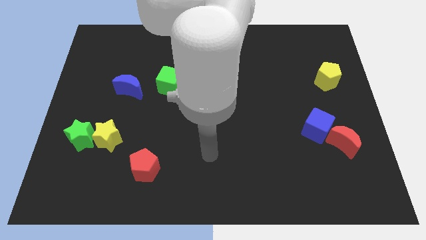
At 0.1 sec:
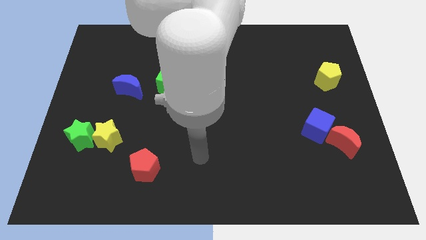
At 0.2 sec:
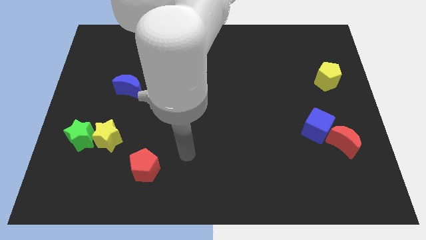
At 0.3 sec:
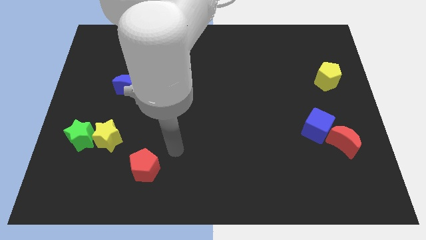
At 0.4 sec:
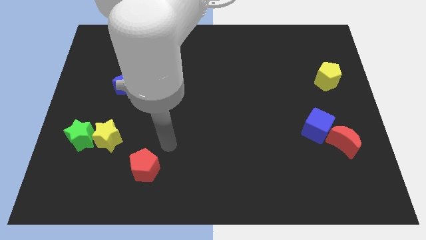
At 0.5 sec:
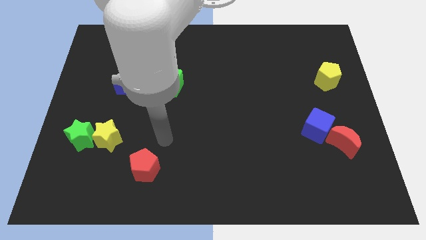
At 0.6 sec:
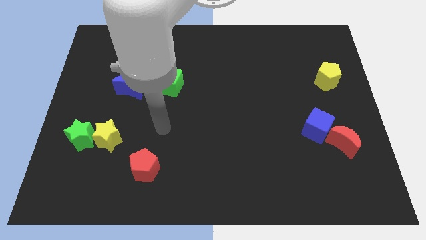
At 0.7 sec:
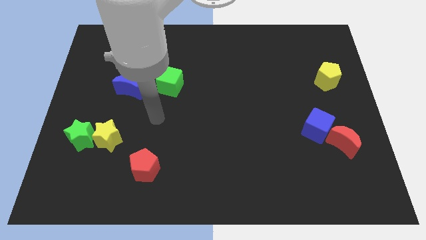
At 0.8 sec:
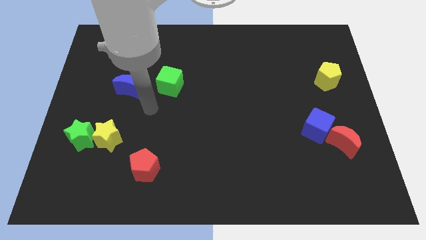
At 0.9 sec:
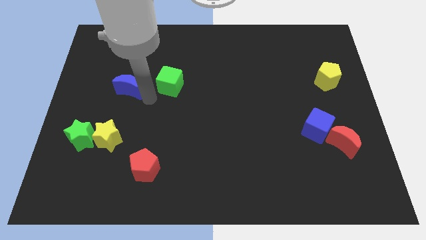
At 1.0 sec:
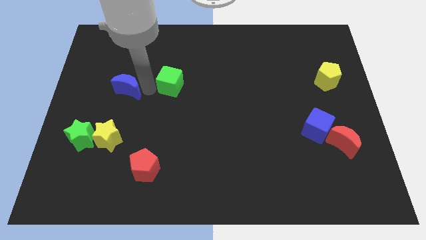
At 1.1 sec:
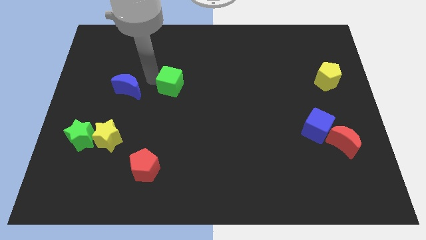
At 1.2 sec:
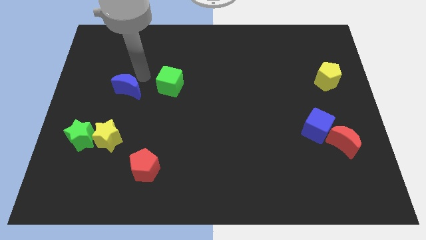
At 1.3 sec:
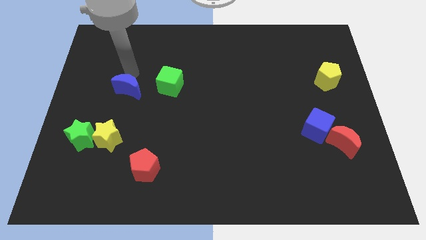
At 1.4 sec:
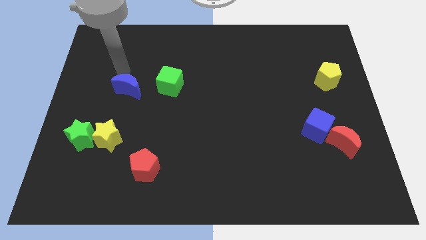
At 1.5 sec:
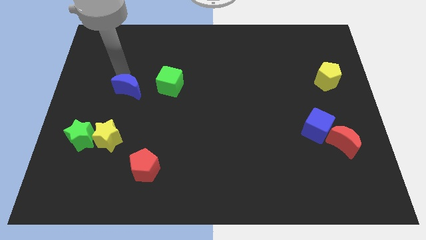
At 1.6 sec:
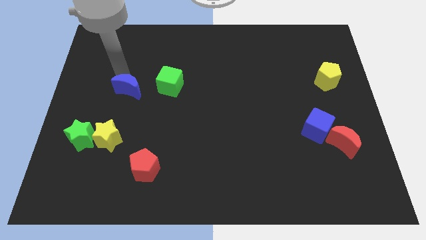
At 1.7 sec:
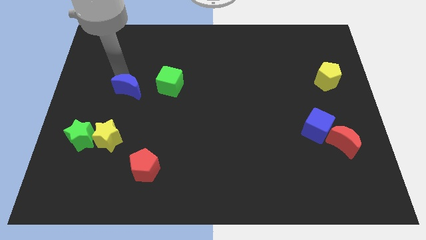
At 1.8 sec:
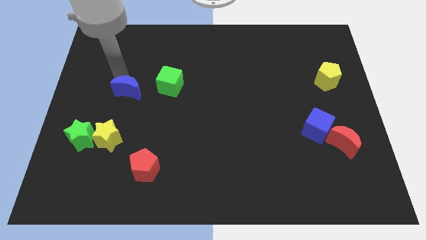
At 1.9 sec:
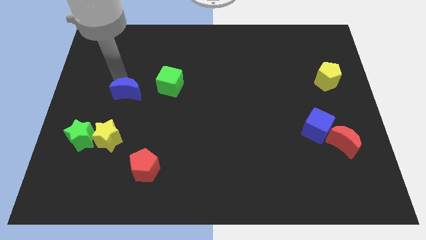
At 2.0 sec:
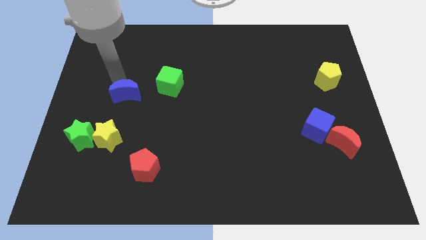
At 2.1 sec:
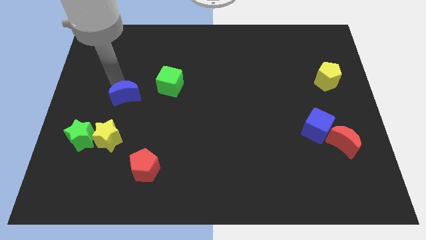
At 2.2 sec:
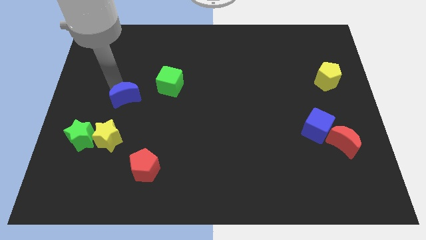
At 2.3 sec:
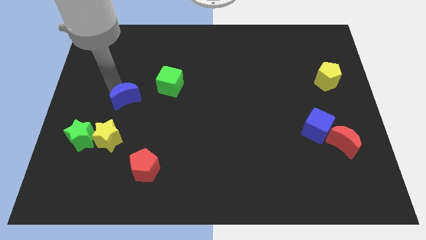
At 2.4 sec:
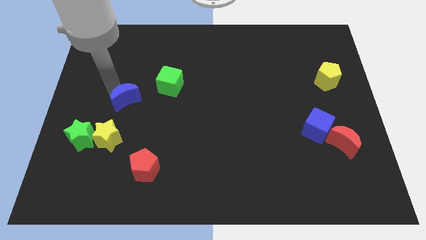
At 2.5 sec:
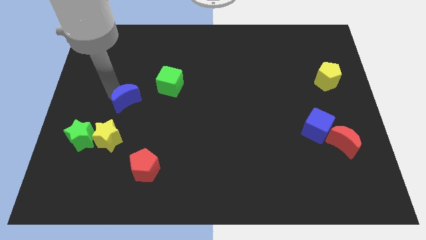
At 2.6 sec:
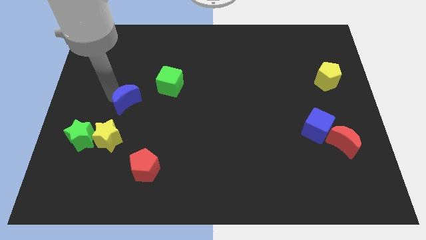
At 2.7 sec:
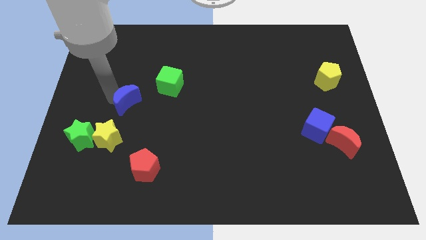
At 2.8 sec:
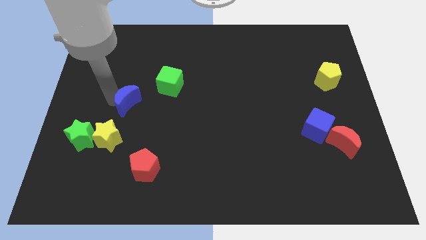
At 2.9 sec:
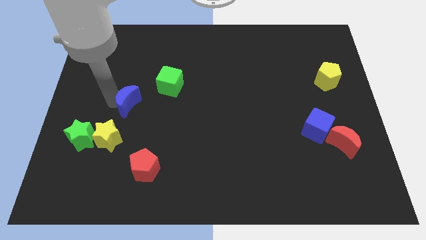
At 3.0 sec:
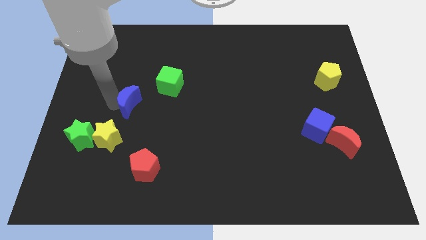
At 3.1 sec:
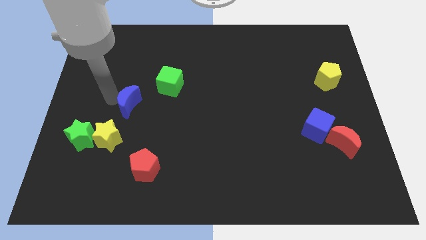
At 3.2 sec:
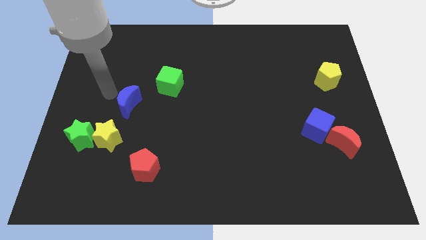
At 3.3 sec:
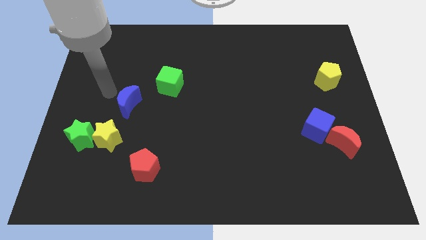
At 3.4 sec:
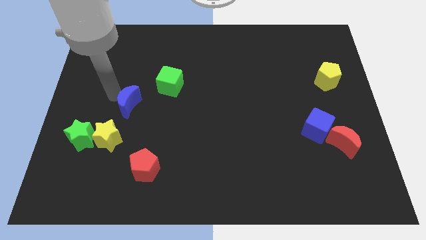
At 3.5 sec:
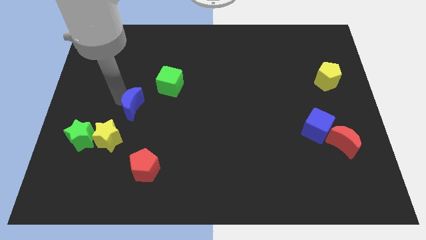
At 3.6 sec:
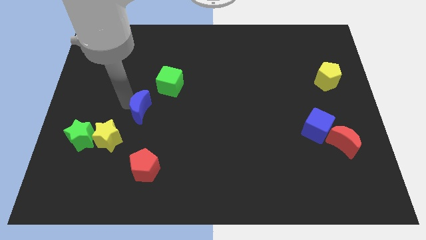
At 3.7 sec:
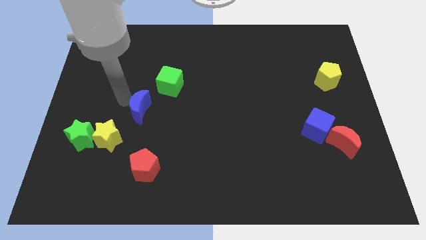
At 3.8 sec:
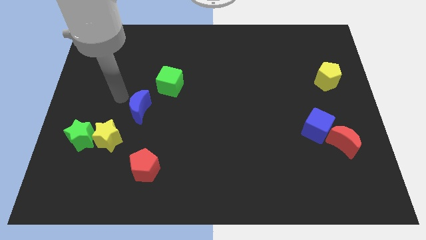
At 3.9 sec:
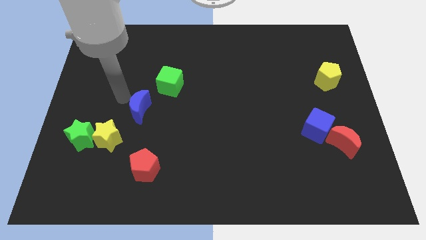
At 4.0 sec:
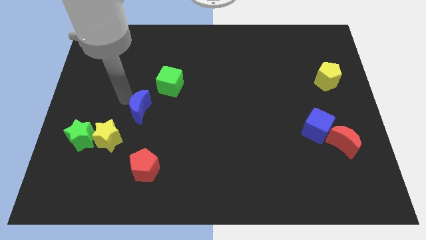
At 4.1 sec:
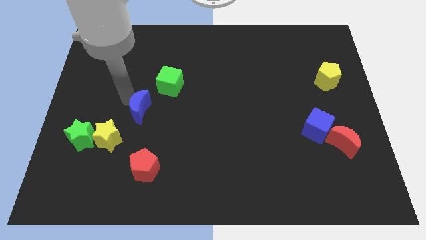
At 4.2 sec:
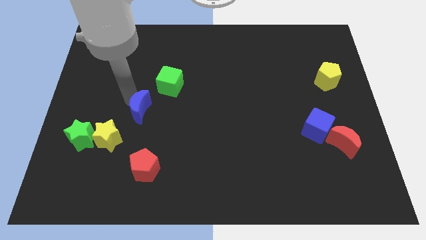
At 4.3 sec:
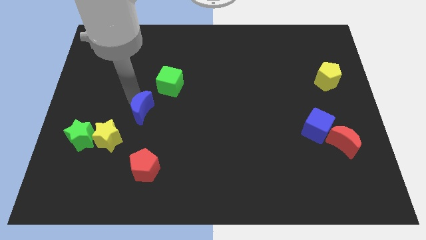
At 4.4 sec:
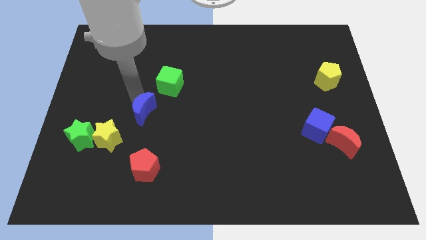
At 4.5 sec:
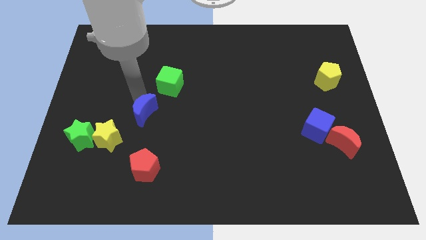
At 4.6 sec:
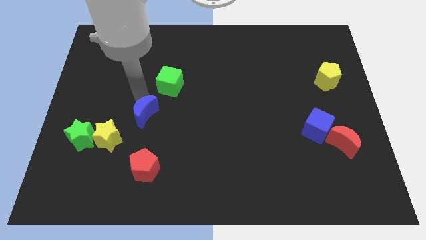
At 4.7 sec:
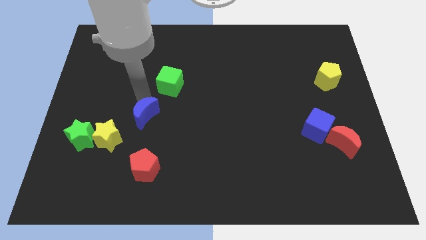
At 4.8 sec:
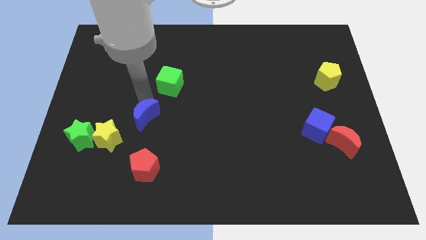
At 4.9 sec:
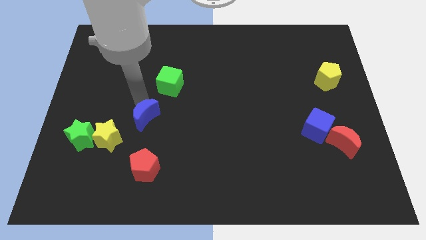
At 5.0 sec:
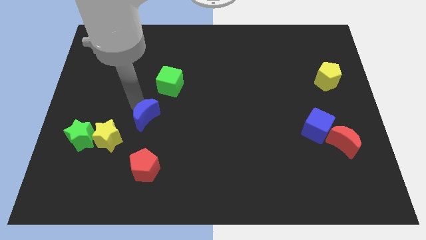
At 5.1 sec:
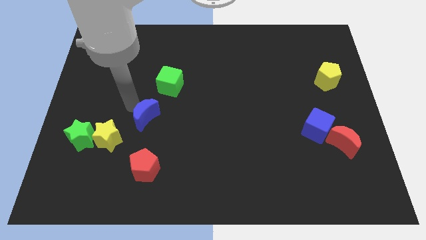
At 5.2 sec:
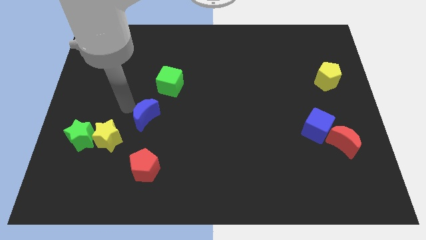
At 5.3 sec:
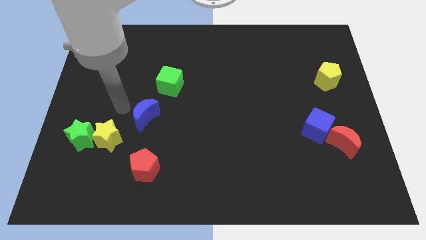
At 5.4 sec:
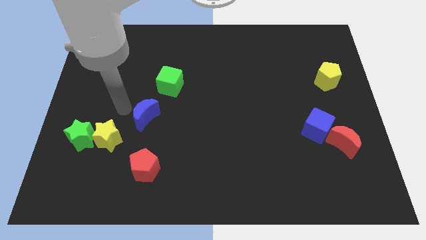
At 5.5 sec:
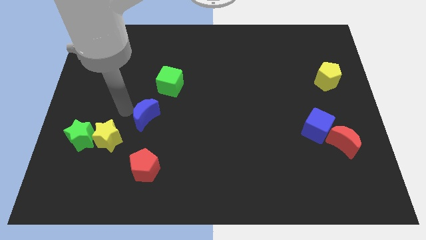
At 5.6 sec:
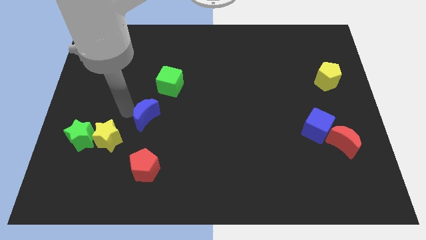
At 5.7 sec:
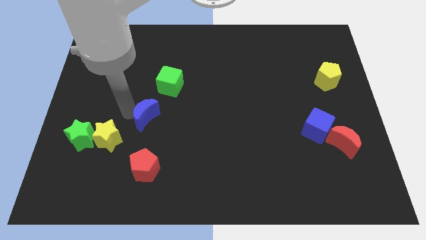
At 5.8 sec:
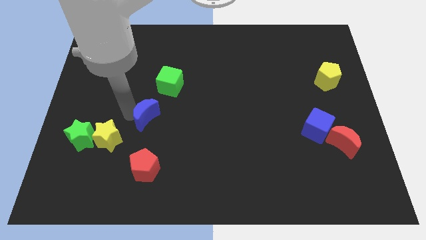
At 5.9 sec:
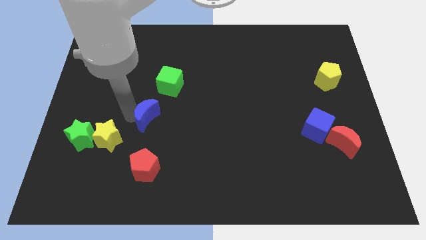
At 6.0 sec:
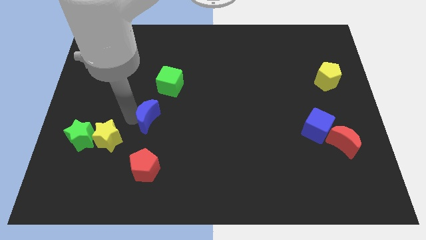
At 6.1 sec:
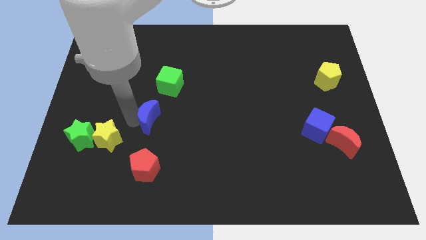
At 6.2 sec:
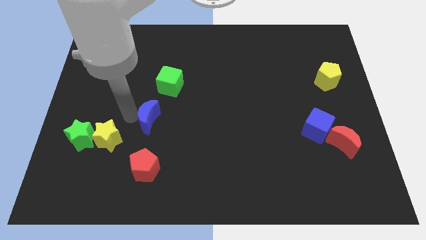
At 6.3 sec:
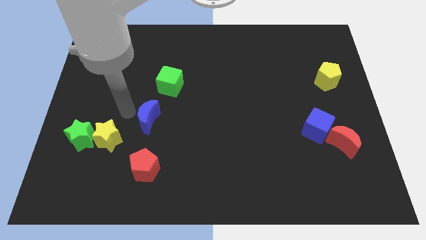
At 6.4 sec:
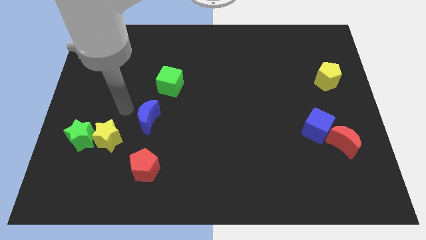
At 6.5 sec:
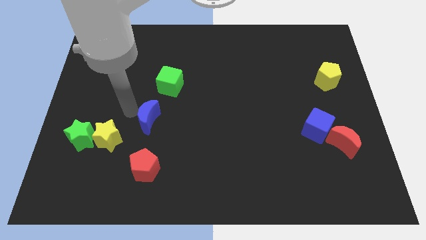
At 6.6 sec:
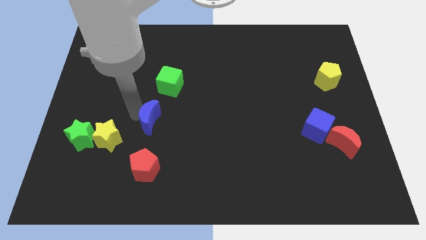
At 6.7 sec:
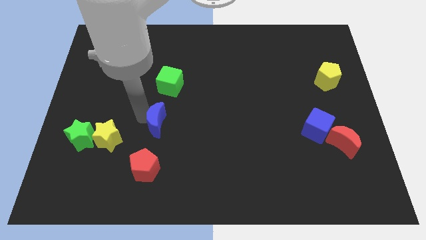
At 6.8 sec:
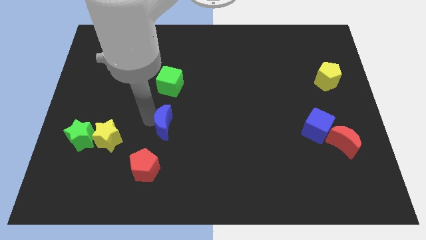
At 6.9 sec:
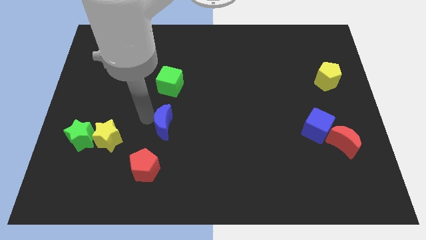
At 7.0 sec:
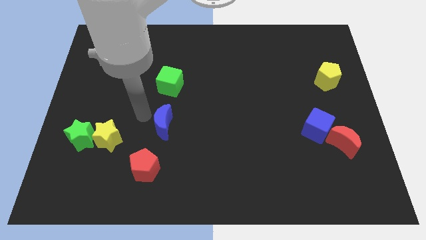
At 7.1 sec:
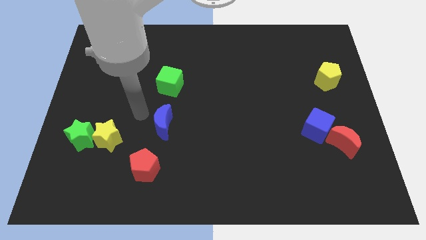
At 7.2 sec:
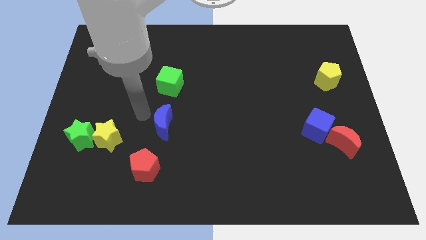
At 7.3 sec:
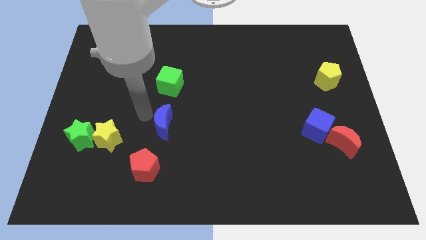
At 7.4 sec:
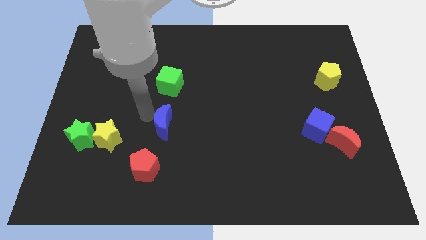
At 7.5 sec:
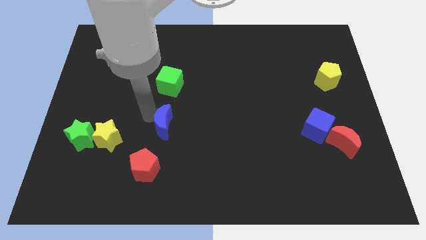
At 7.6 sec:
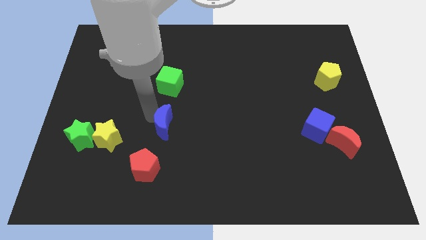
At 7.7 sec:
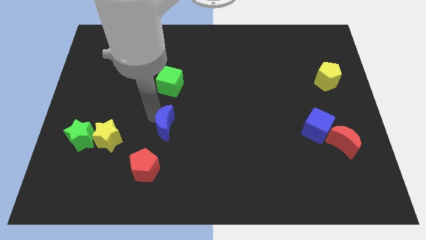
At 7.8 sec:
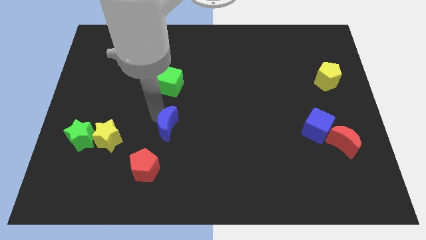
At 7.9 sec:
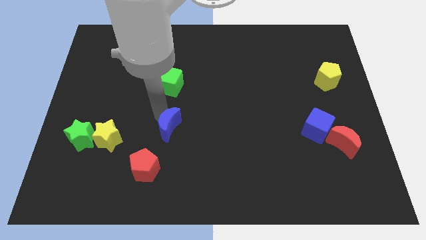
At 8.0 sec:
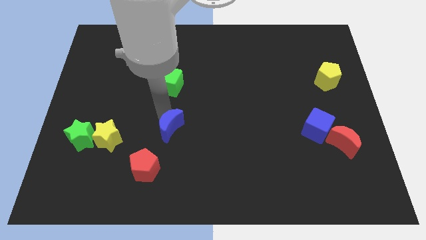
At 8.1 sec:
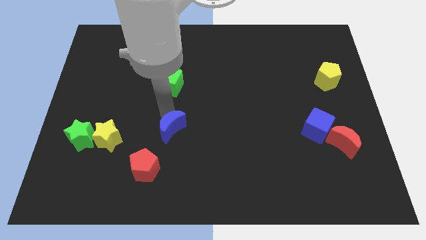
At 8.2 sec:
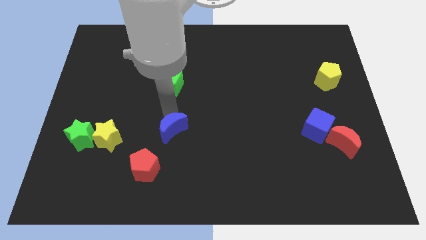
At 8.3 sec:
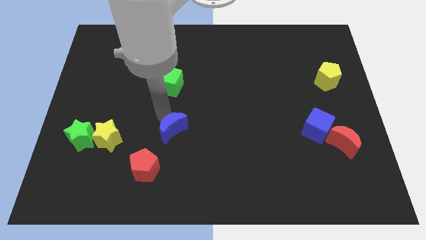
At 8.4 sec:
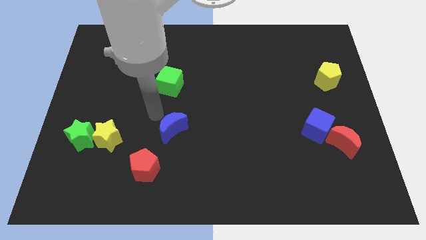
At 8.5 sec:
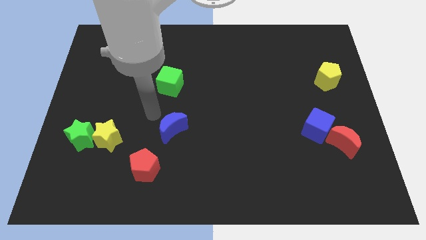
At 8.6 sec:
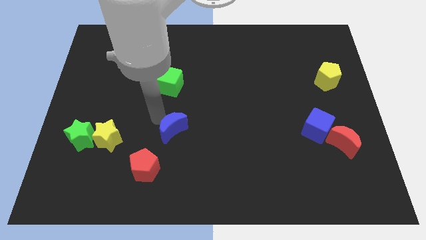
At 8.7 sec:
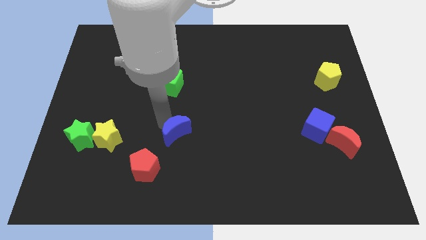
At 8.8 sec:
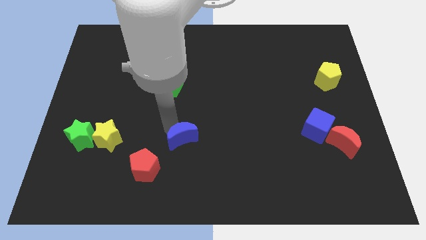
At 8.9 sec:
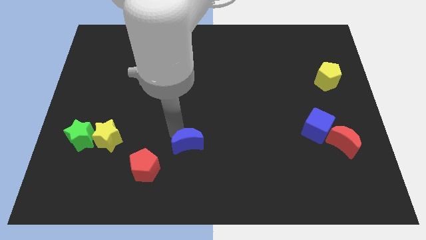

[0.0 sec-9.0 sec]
push the blue moon down and to the right diagonally
